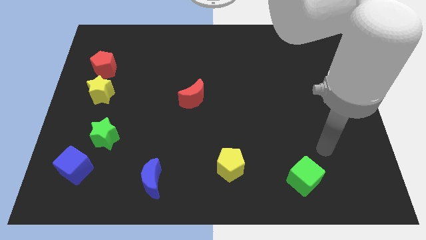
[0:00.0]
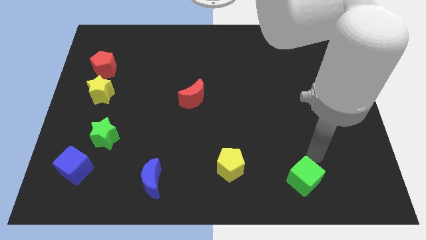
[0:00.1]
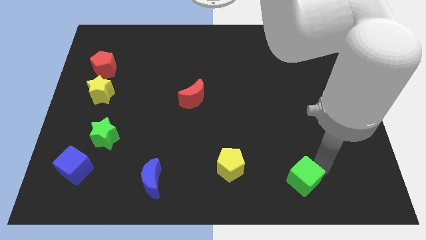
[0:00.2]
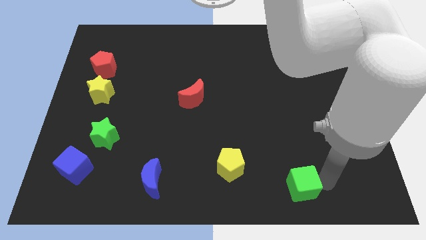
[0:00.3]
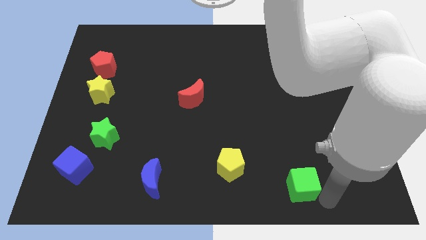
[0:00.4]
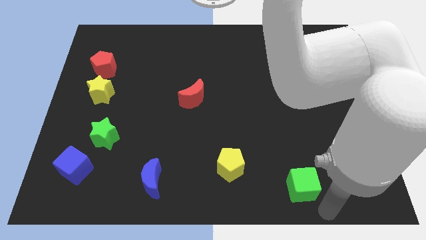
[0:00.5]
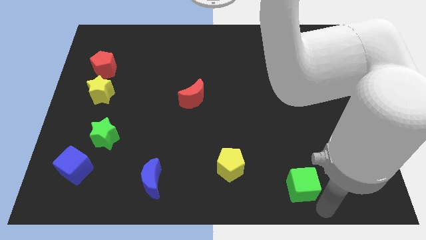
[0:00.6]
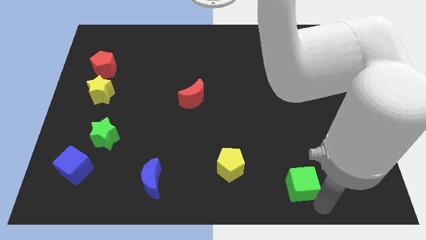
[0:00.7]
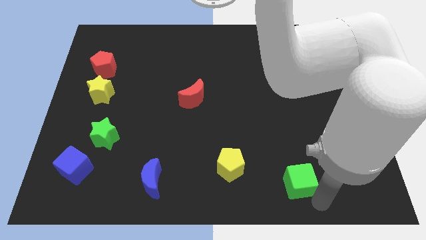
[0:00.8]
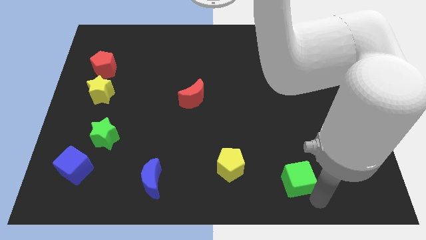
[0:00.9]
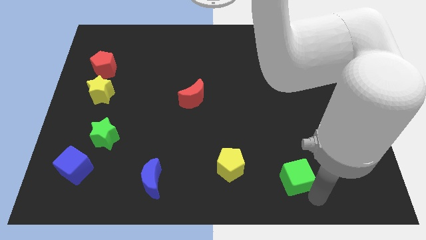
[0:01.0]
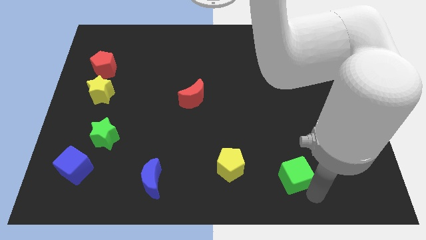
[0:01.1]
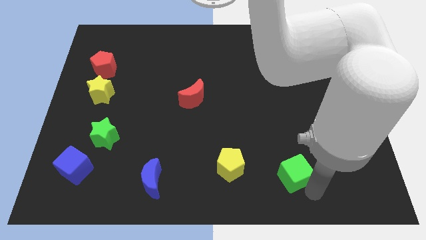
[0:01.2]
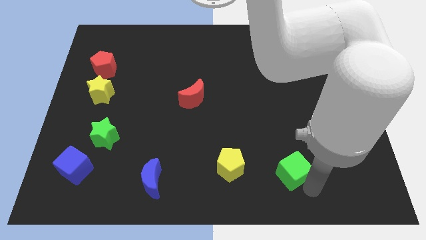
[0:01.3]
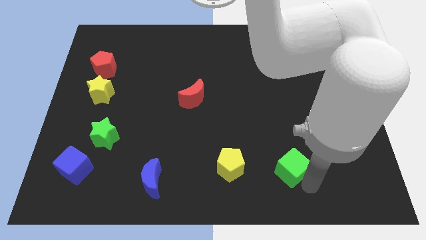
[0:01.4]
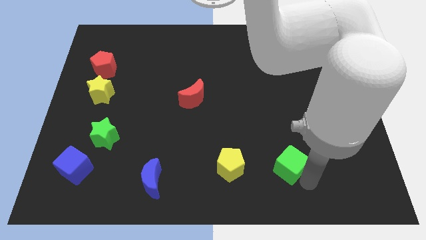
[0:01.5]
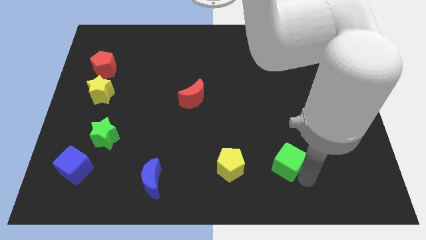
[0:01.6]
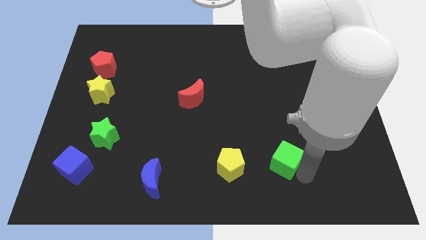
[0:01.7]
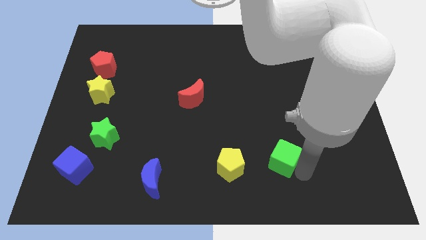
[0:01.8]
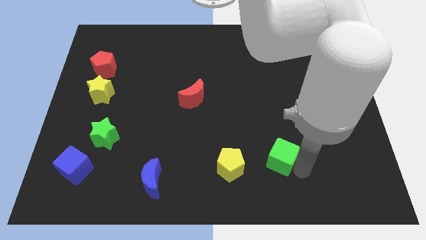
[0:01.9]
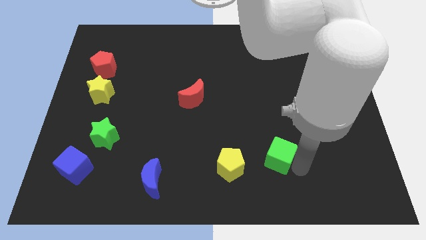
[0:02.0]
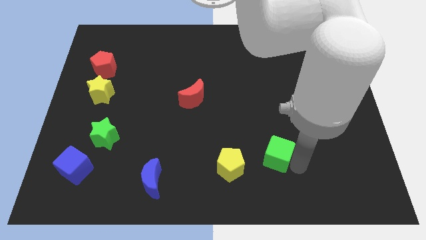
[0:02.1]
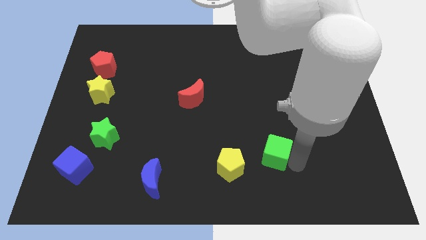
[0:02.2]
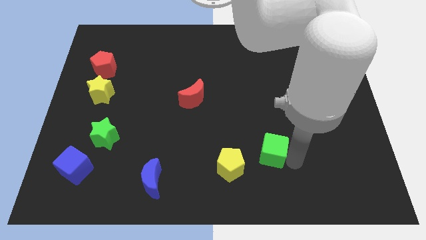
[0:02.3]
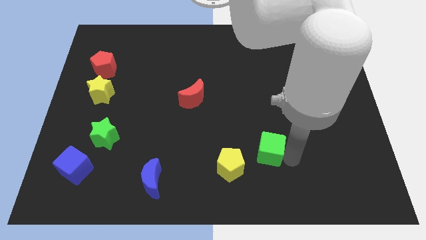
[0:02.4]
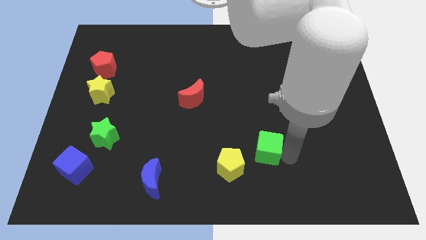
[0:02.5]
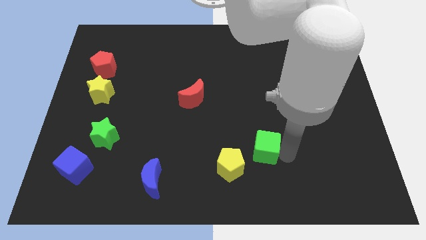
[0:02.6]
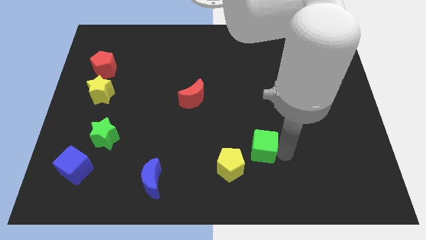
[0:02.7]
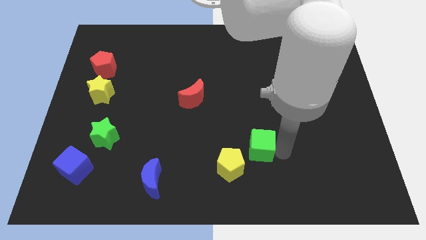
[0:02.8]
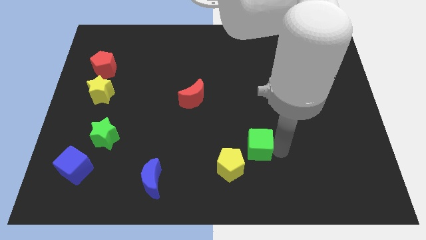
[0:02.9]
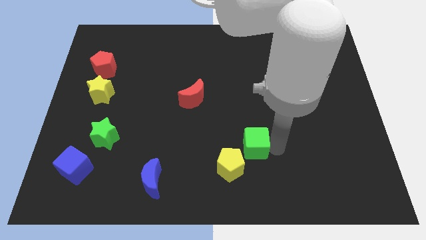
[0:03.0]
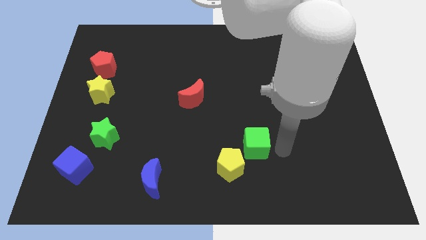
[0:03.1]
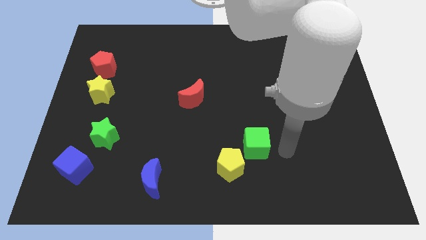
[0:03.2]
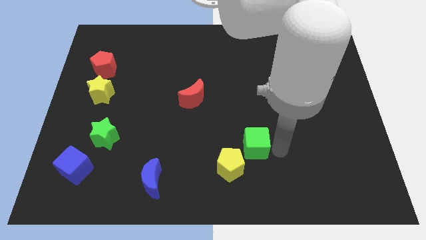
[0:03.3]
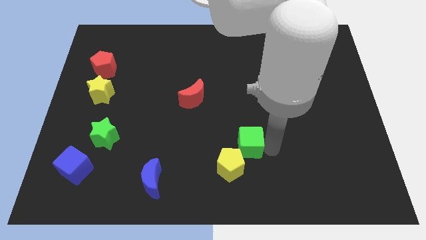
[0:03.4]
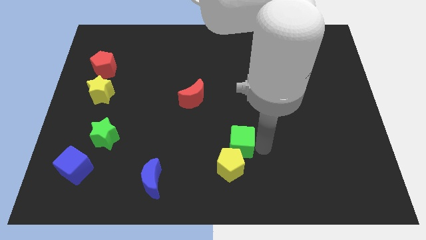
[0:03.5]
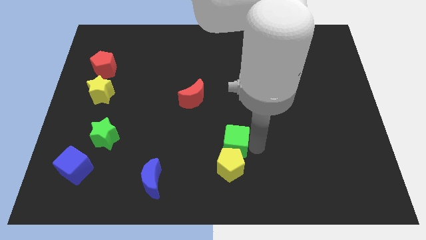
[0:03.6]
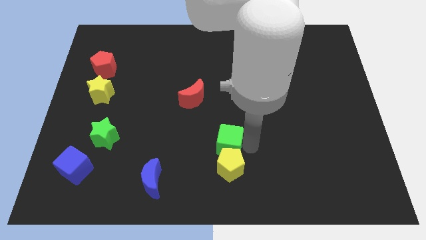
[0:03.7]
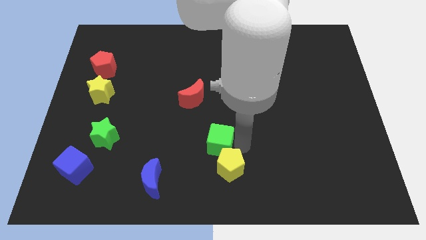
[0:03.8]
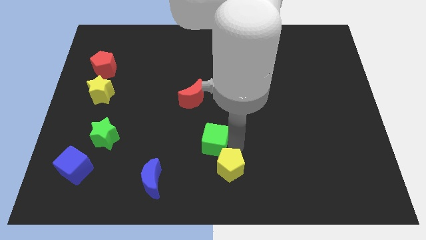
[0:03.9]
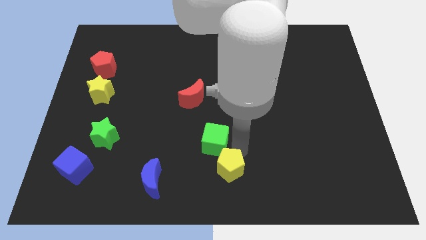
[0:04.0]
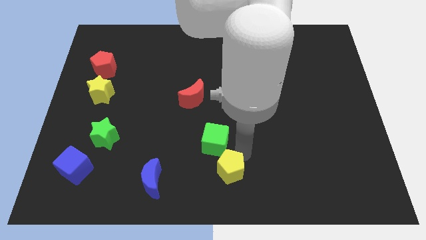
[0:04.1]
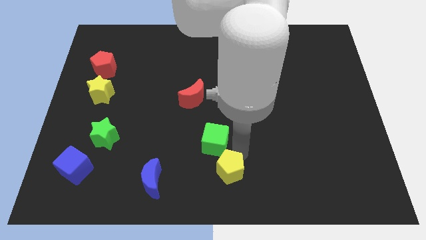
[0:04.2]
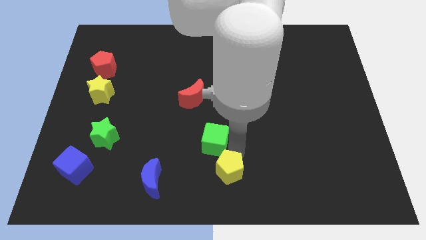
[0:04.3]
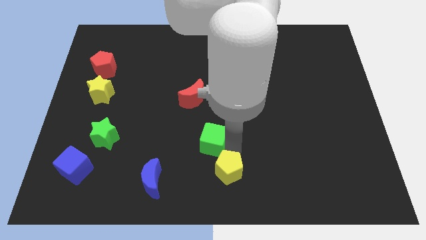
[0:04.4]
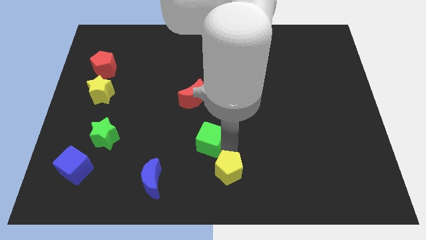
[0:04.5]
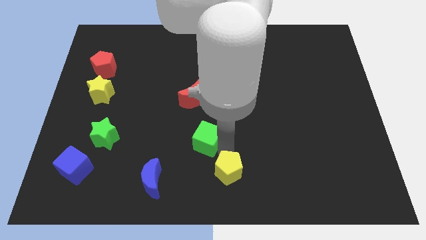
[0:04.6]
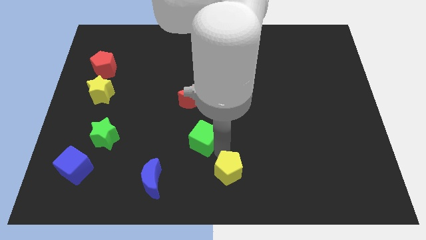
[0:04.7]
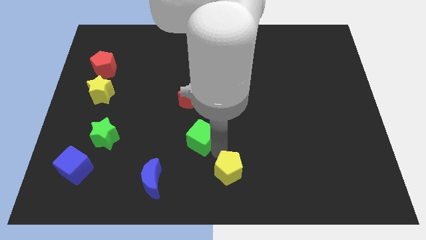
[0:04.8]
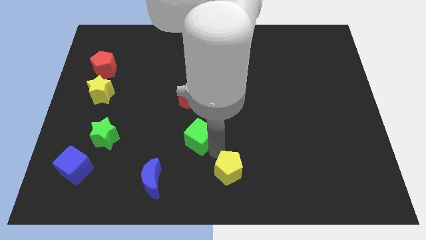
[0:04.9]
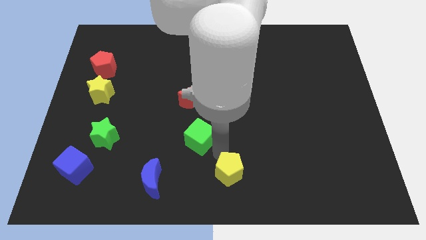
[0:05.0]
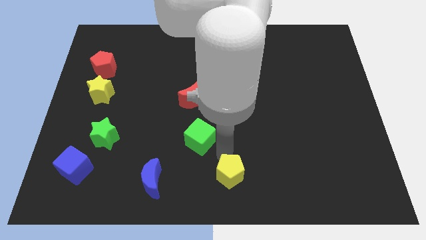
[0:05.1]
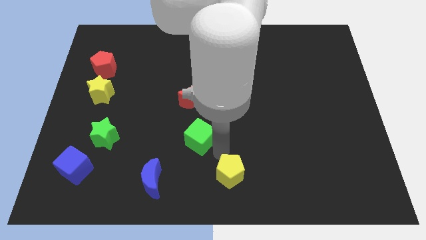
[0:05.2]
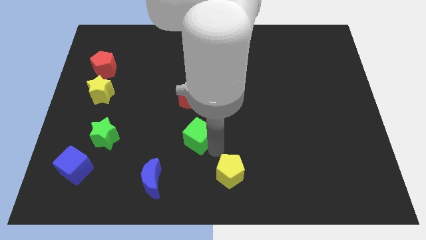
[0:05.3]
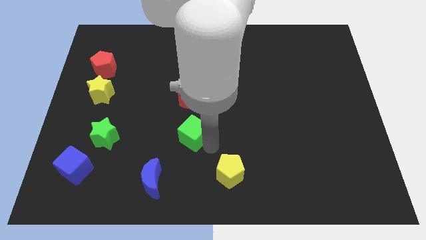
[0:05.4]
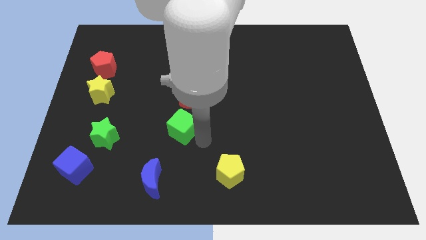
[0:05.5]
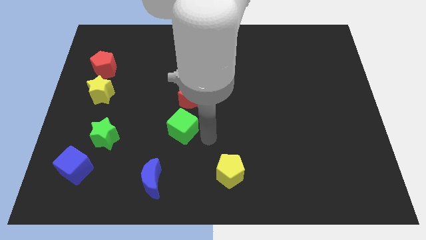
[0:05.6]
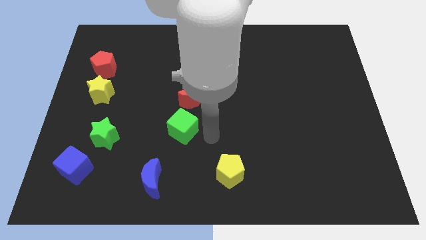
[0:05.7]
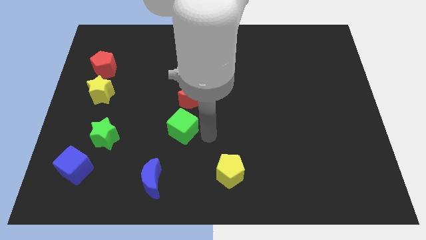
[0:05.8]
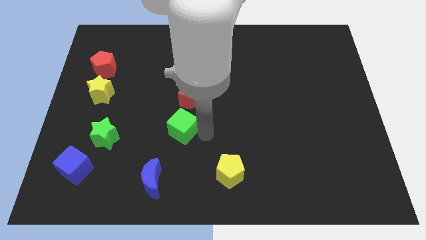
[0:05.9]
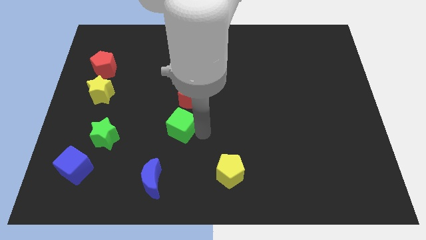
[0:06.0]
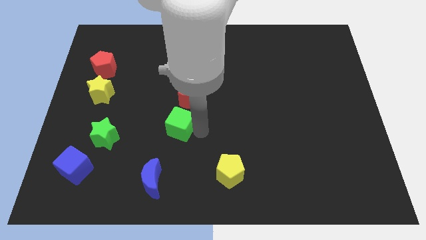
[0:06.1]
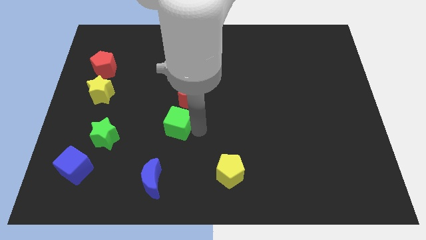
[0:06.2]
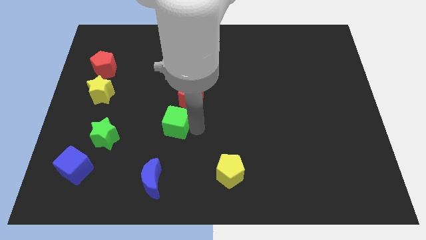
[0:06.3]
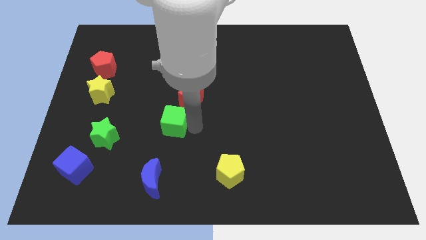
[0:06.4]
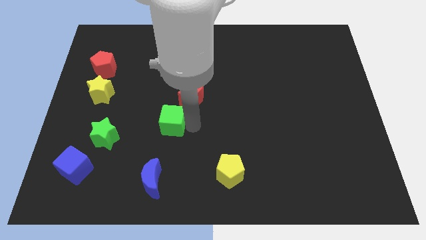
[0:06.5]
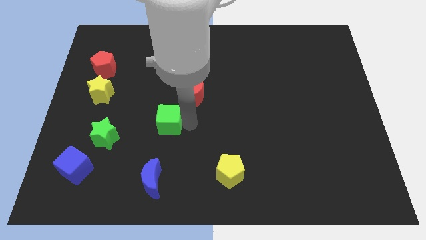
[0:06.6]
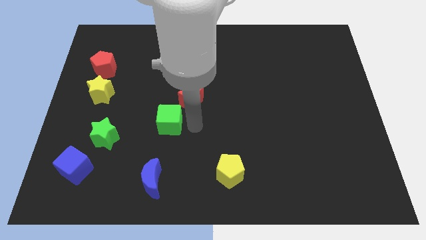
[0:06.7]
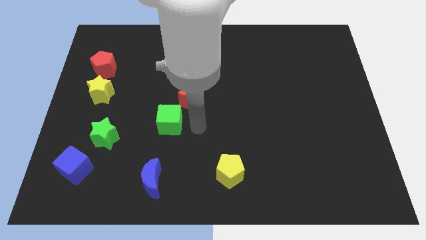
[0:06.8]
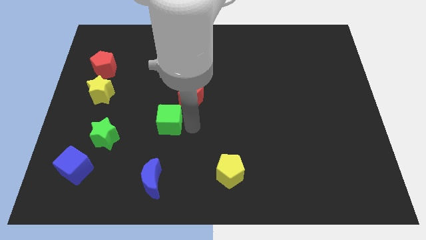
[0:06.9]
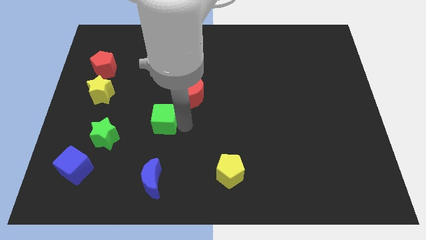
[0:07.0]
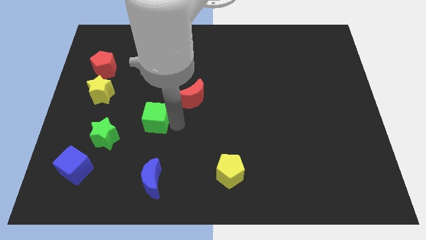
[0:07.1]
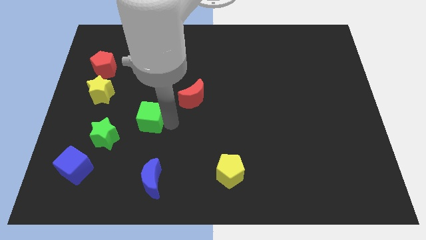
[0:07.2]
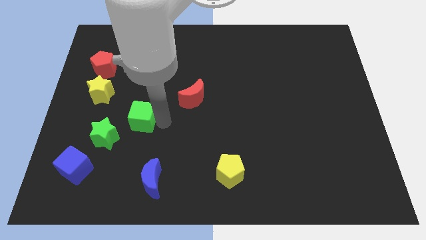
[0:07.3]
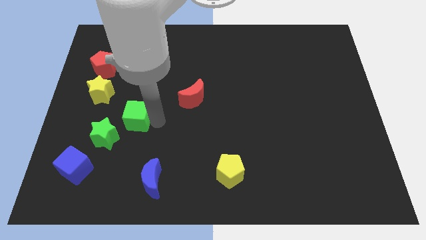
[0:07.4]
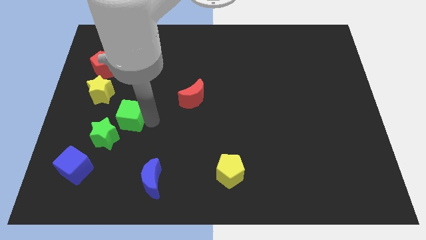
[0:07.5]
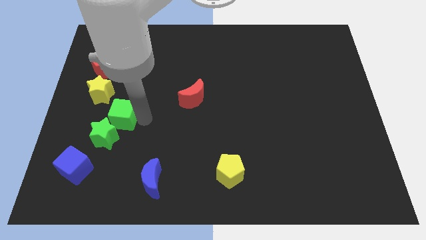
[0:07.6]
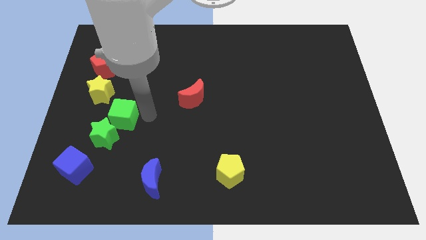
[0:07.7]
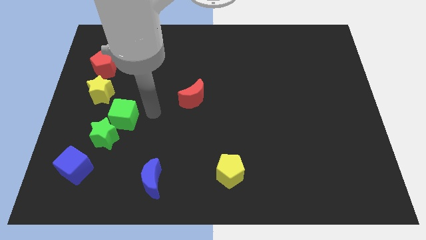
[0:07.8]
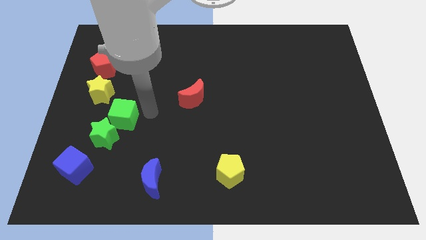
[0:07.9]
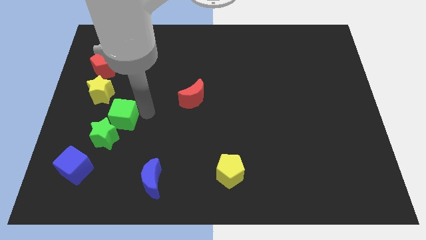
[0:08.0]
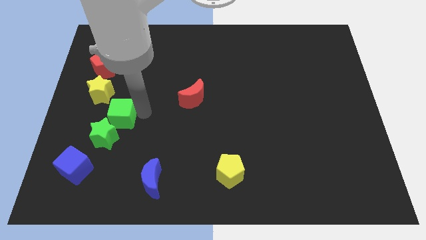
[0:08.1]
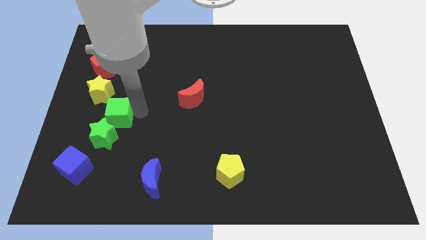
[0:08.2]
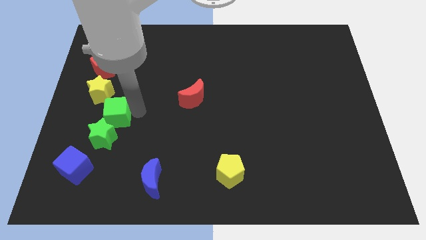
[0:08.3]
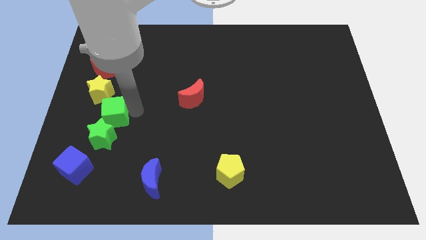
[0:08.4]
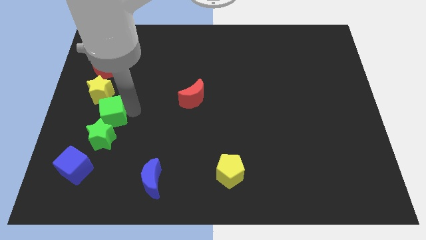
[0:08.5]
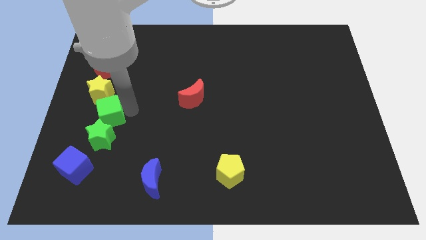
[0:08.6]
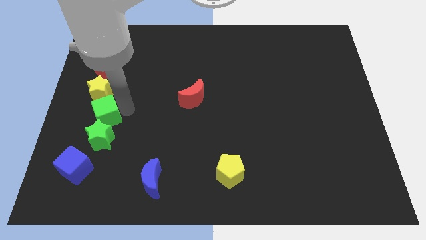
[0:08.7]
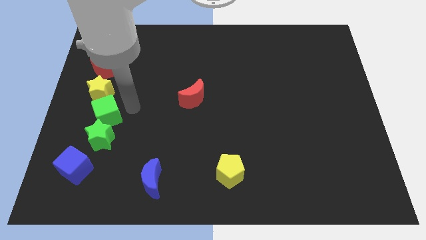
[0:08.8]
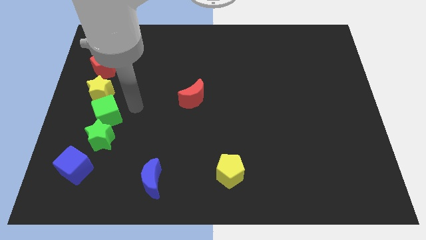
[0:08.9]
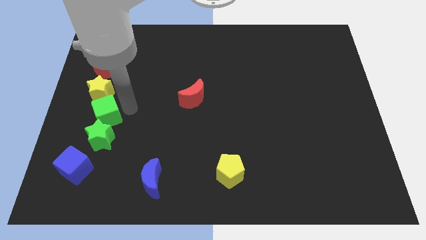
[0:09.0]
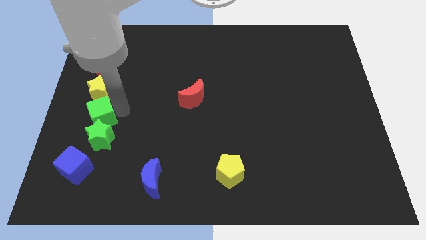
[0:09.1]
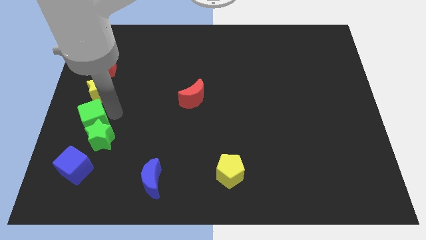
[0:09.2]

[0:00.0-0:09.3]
slide the green cube to the left side of the board
